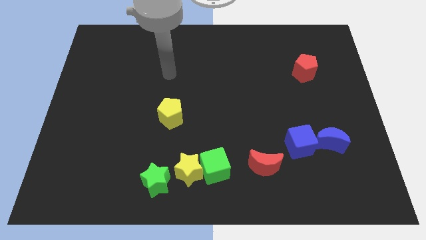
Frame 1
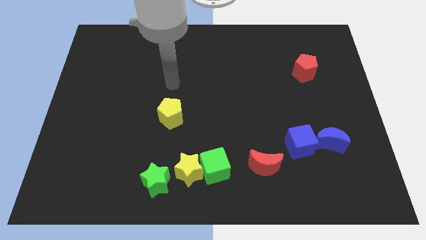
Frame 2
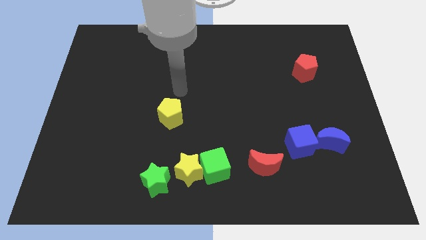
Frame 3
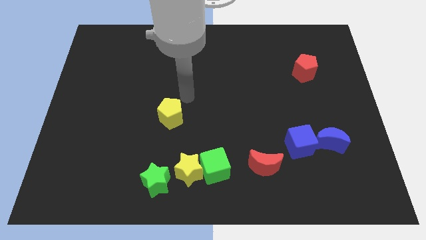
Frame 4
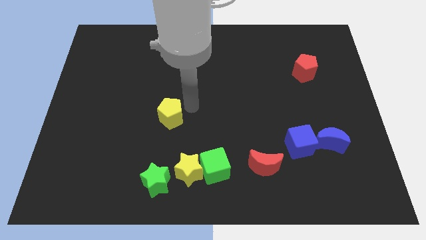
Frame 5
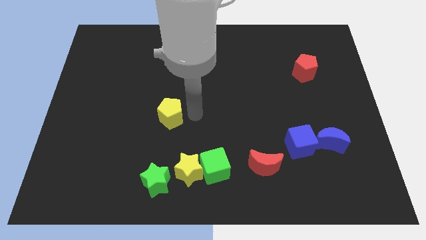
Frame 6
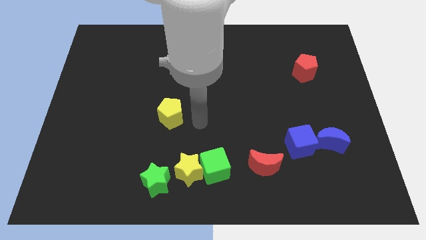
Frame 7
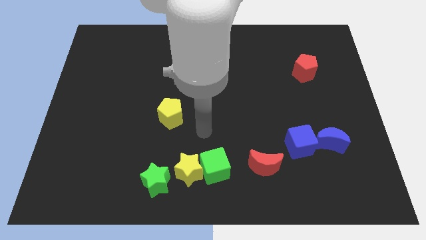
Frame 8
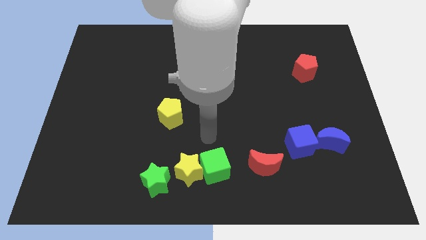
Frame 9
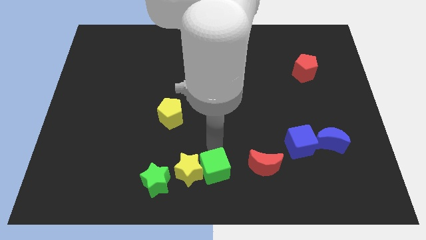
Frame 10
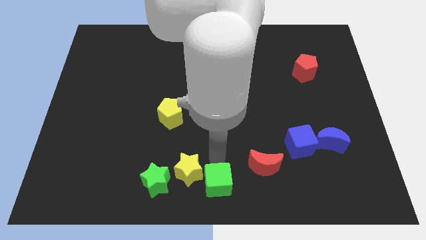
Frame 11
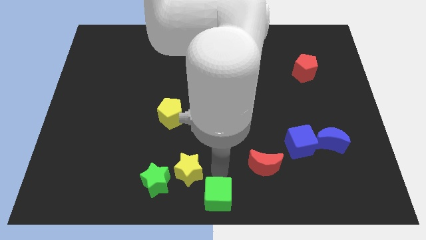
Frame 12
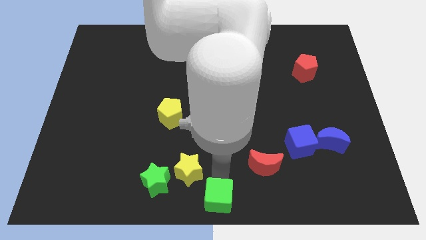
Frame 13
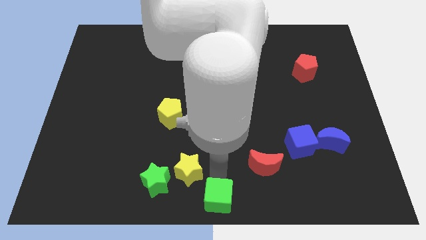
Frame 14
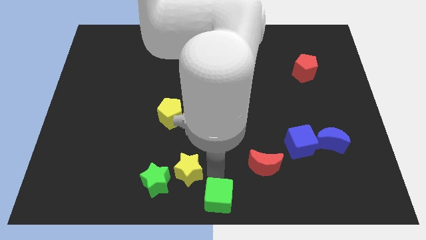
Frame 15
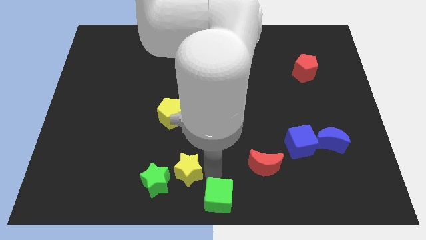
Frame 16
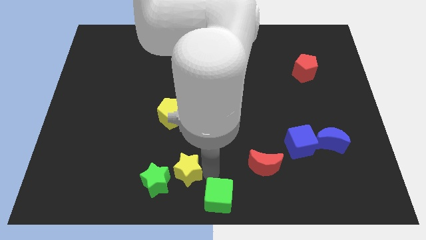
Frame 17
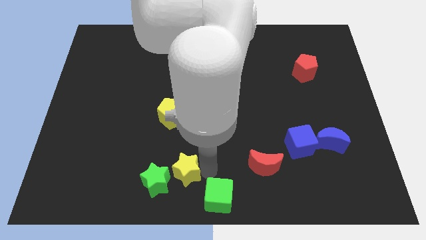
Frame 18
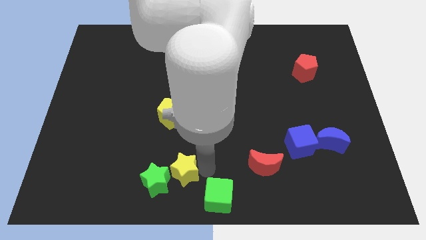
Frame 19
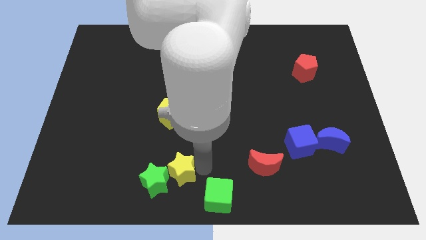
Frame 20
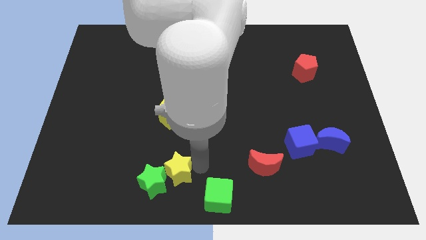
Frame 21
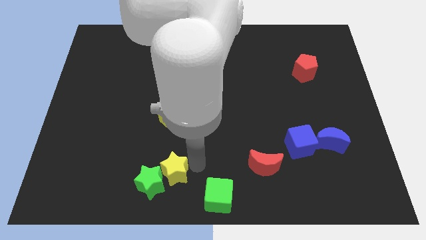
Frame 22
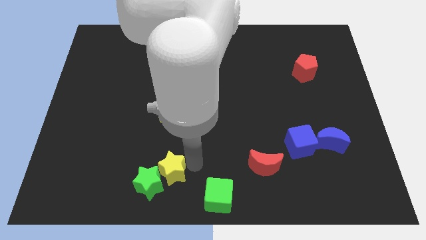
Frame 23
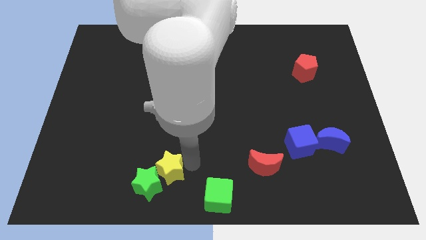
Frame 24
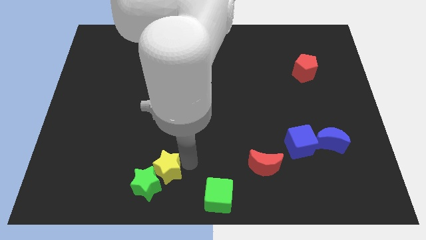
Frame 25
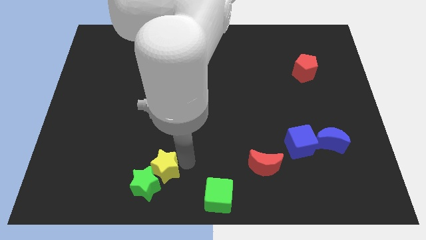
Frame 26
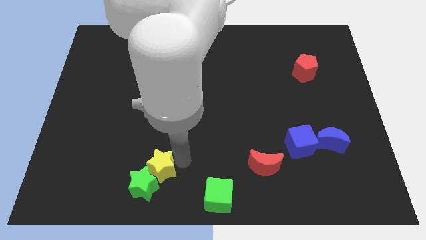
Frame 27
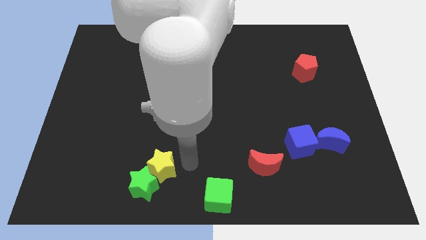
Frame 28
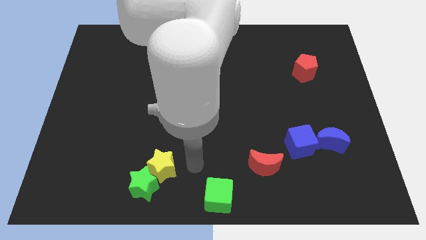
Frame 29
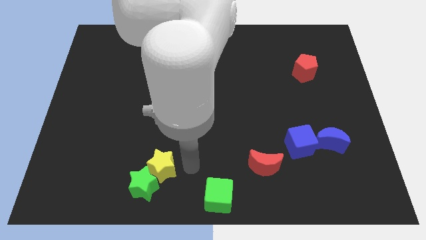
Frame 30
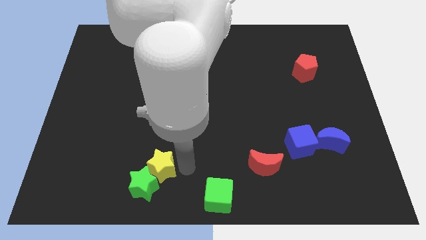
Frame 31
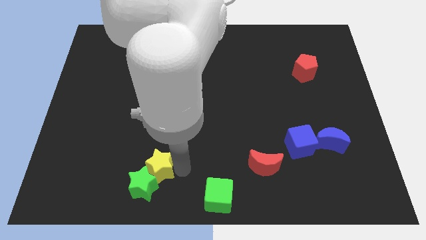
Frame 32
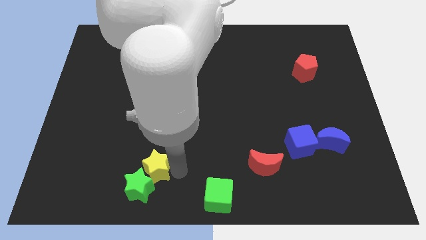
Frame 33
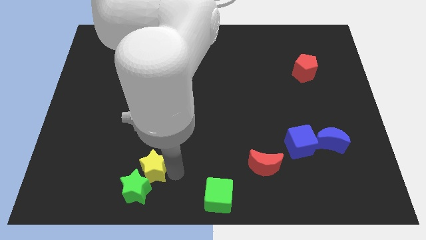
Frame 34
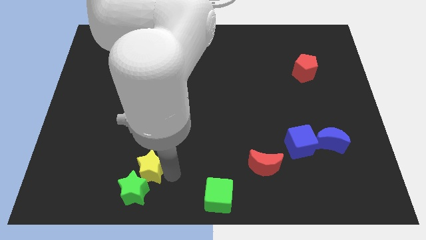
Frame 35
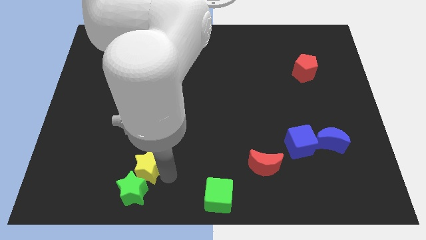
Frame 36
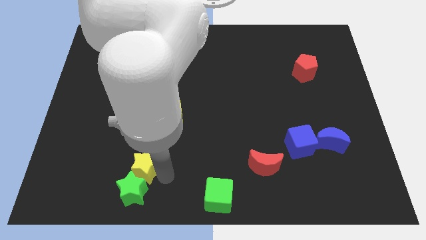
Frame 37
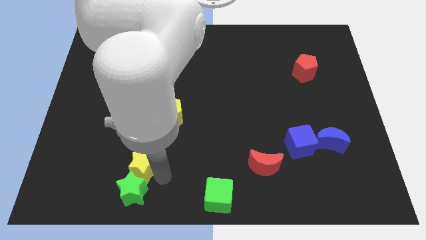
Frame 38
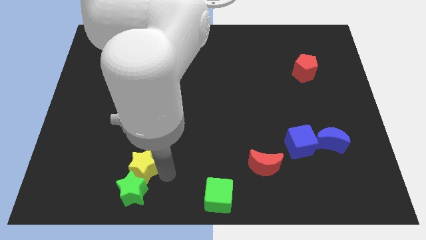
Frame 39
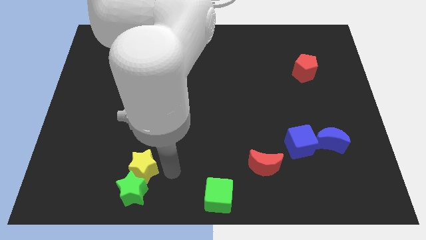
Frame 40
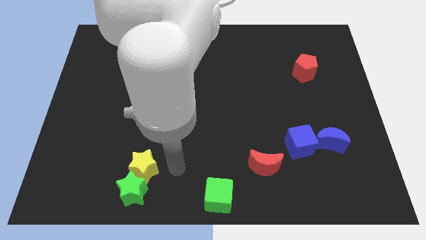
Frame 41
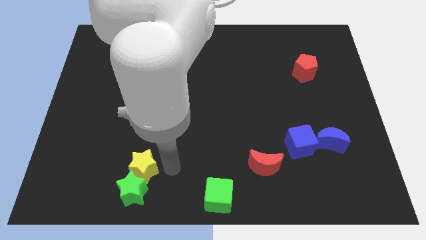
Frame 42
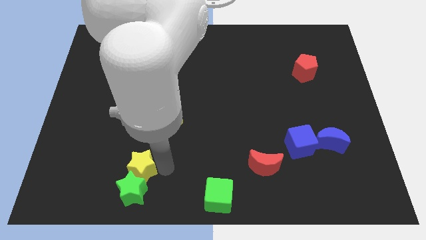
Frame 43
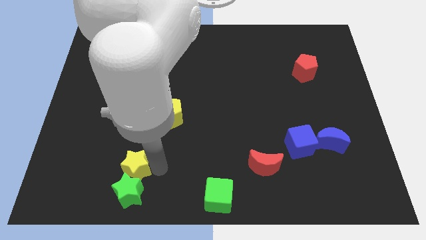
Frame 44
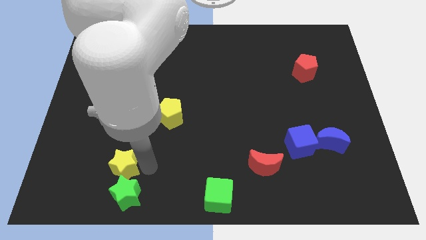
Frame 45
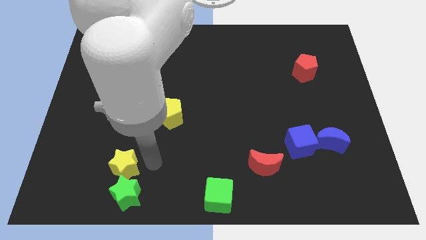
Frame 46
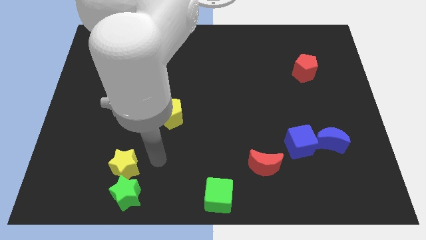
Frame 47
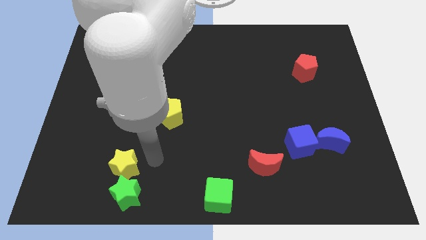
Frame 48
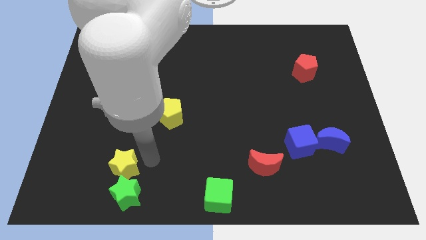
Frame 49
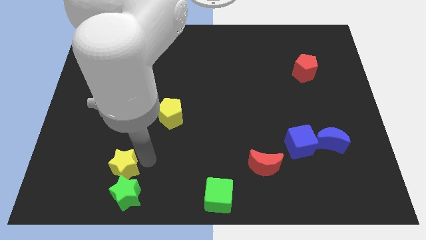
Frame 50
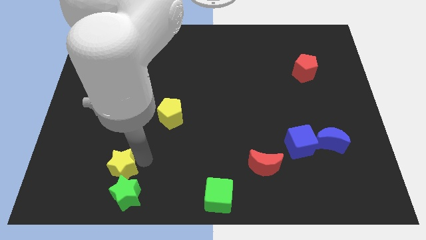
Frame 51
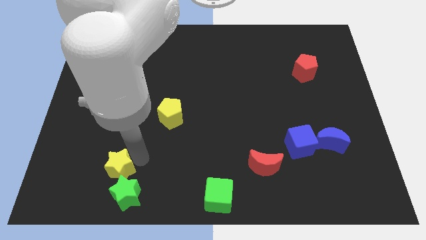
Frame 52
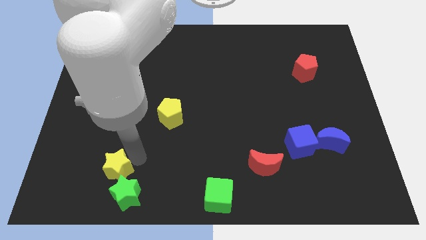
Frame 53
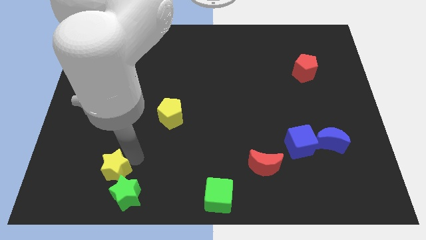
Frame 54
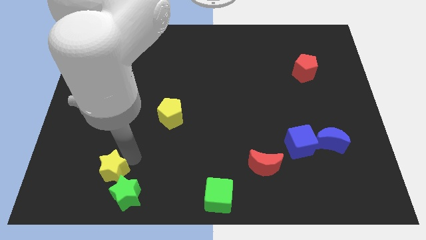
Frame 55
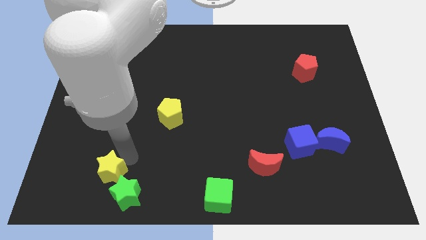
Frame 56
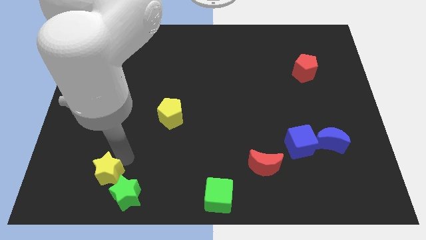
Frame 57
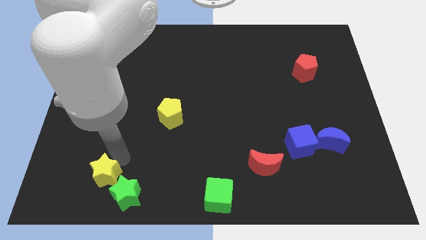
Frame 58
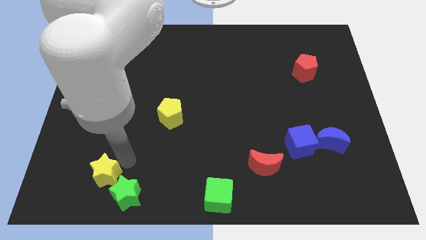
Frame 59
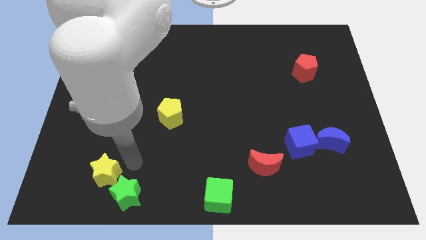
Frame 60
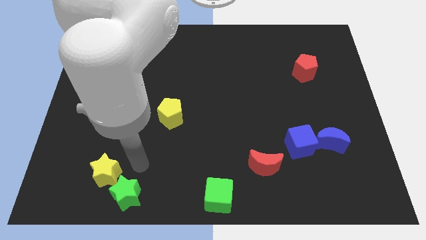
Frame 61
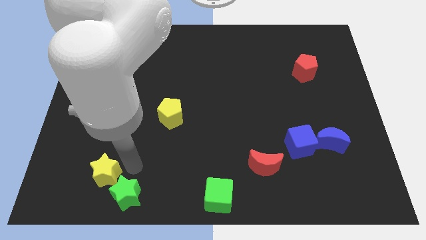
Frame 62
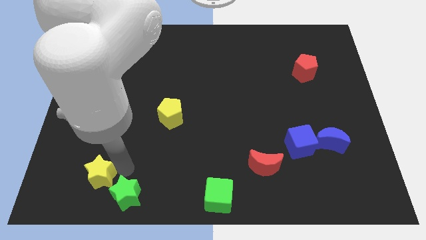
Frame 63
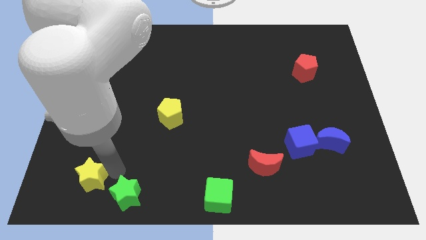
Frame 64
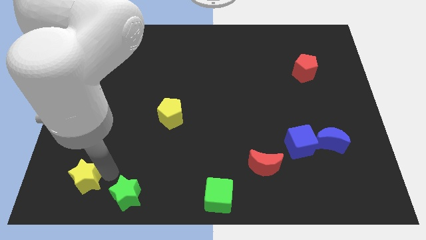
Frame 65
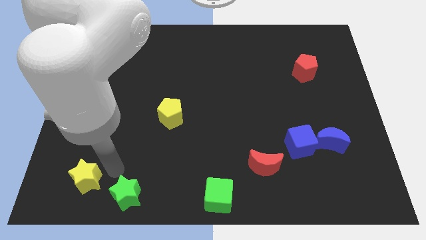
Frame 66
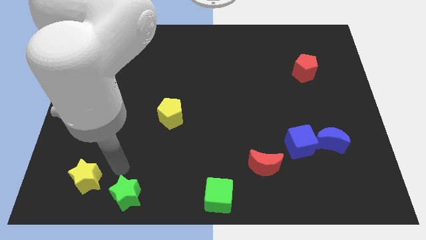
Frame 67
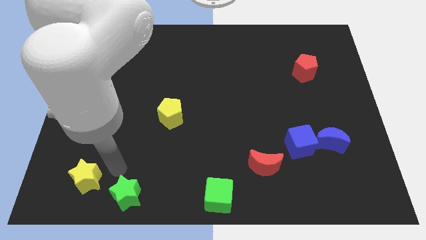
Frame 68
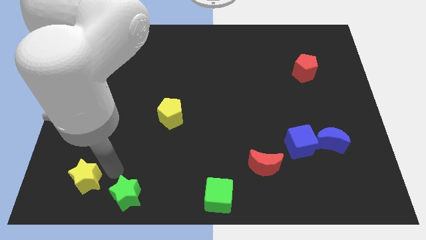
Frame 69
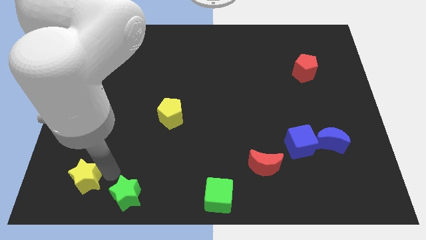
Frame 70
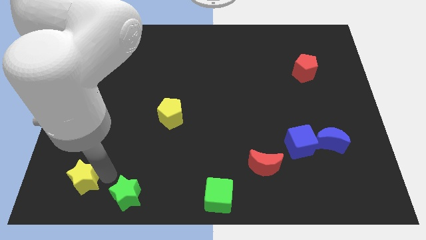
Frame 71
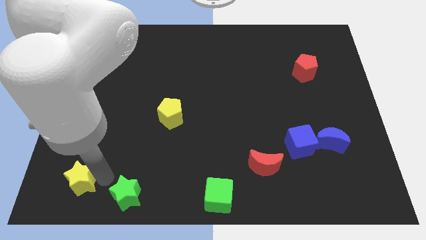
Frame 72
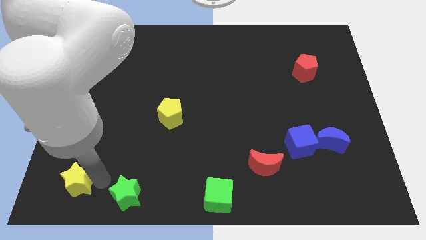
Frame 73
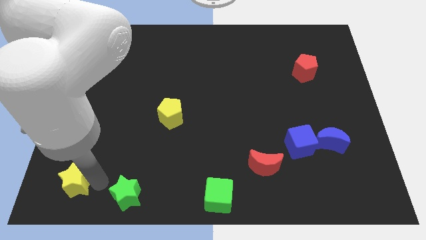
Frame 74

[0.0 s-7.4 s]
put the yellow star to the bottom left corner

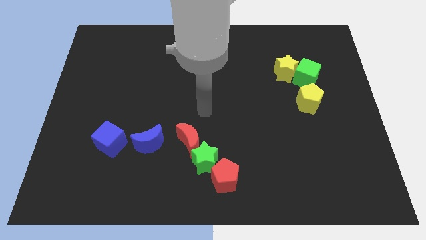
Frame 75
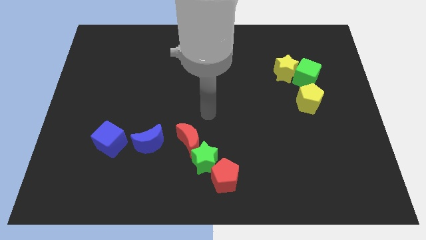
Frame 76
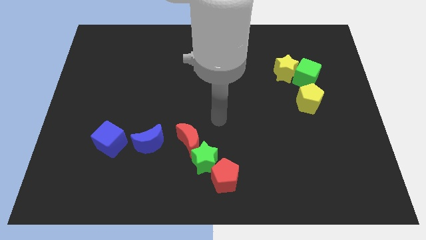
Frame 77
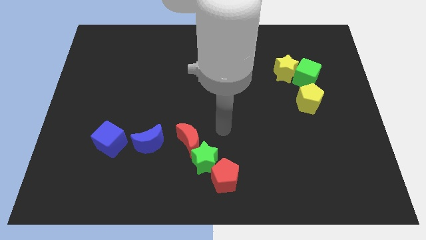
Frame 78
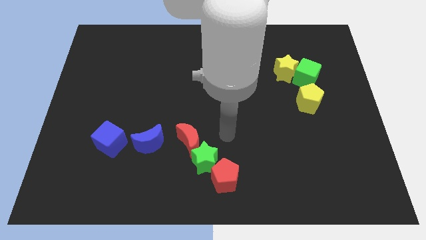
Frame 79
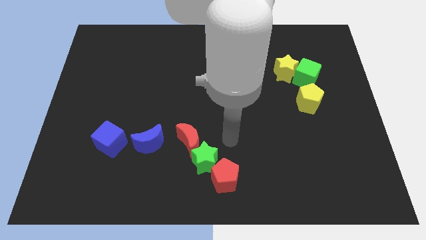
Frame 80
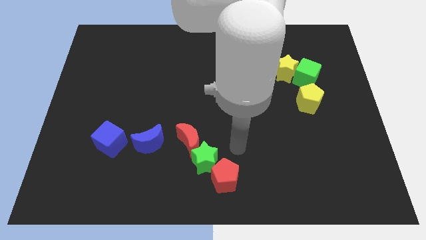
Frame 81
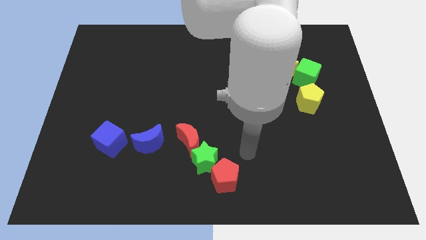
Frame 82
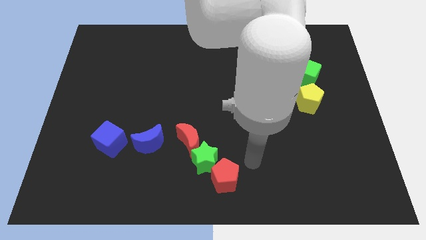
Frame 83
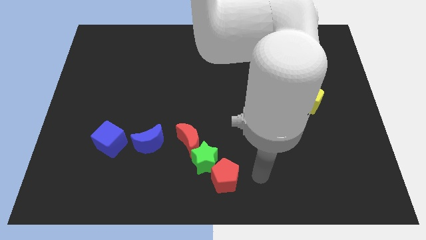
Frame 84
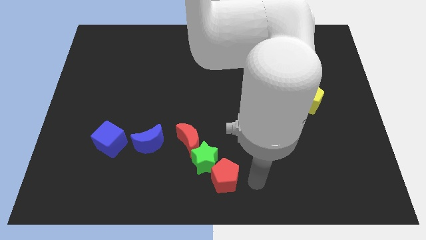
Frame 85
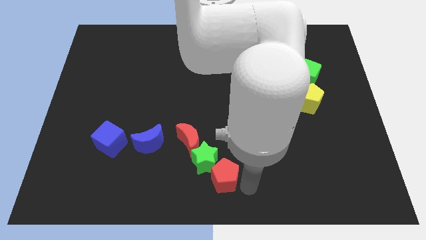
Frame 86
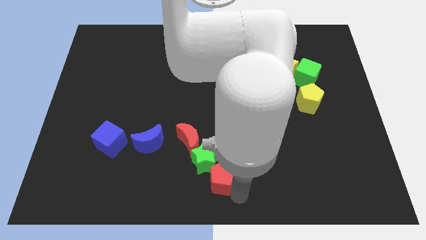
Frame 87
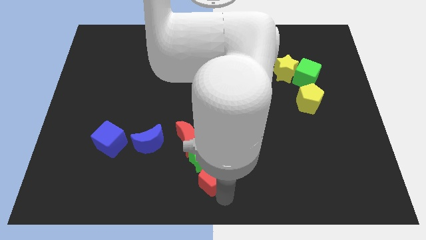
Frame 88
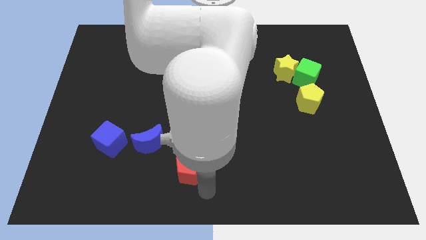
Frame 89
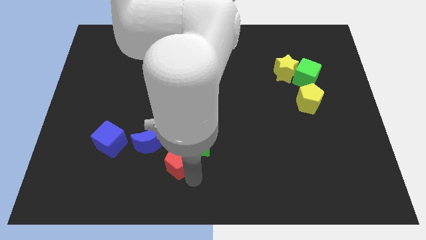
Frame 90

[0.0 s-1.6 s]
push the green star to the middle of the board
